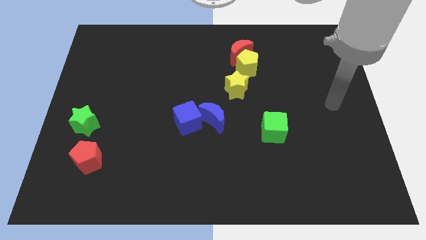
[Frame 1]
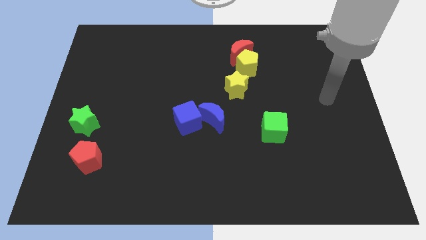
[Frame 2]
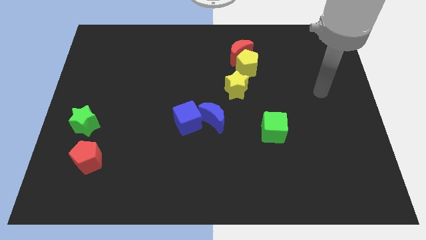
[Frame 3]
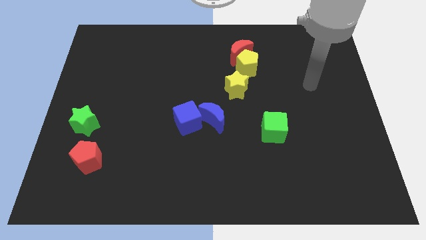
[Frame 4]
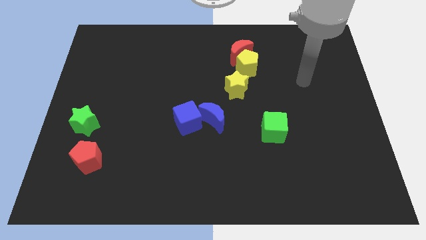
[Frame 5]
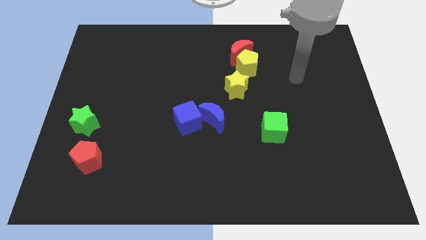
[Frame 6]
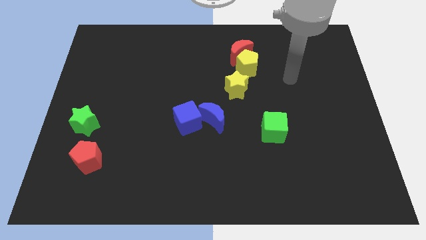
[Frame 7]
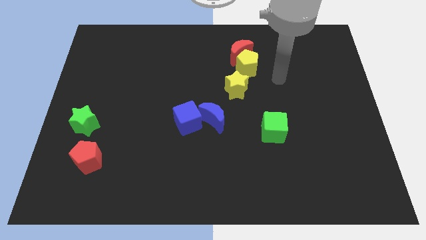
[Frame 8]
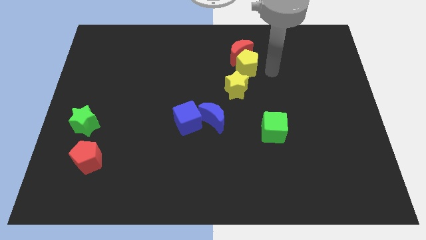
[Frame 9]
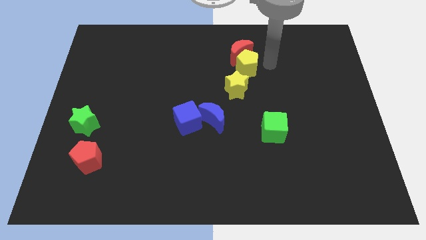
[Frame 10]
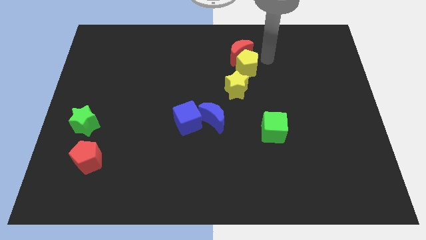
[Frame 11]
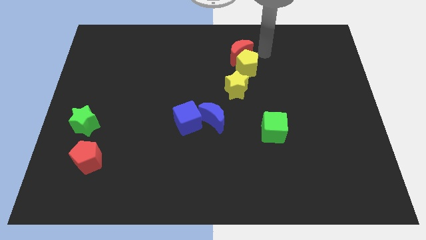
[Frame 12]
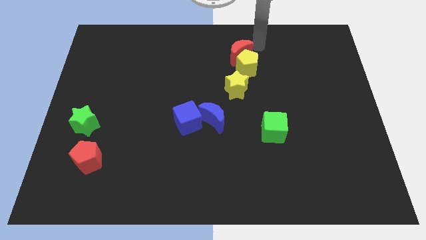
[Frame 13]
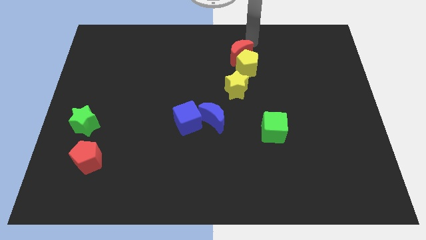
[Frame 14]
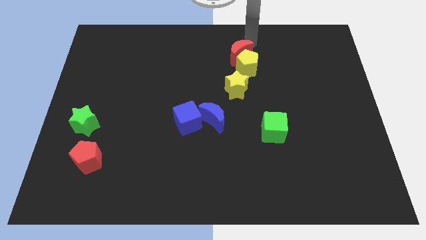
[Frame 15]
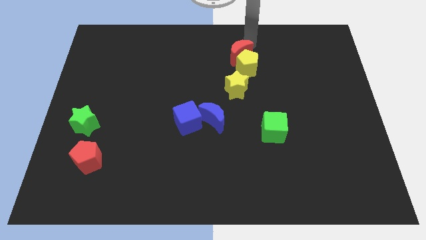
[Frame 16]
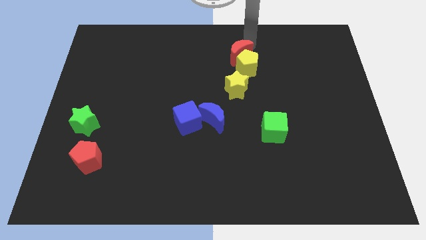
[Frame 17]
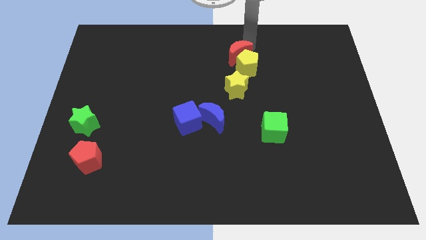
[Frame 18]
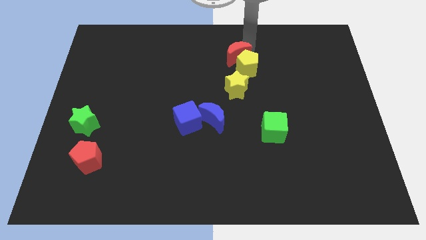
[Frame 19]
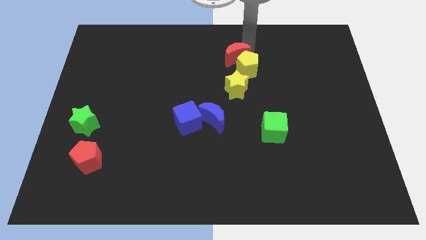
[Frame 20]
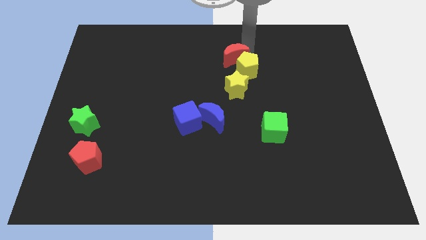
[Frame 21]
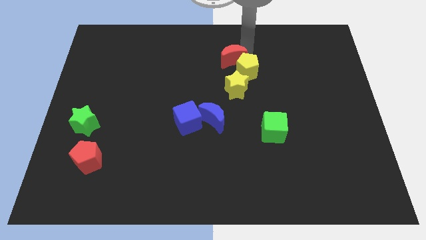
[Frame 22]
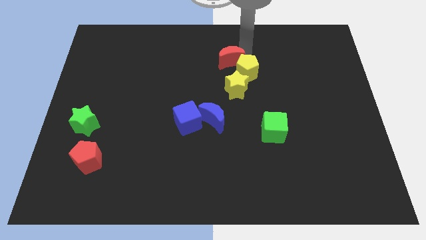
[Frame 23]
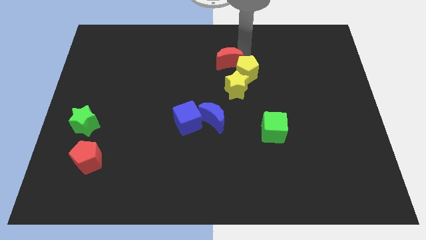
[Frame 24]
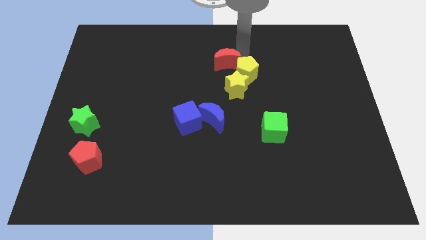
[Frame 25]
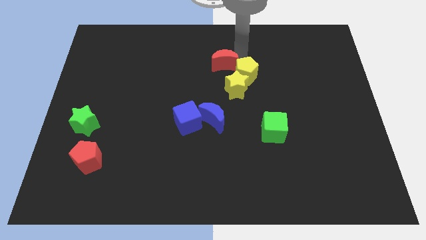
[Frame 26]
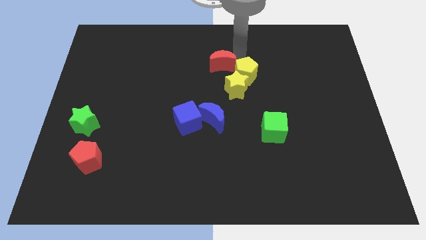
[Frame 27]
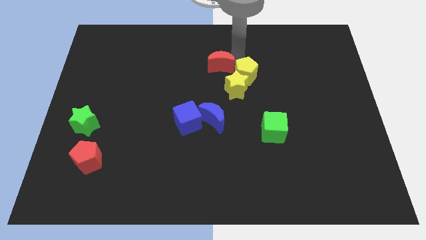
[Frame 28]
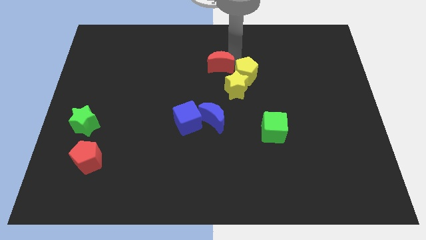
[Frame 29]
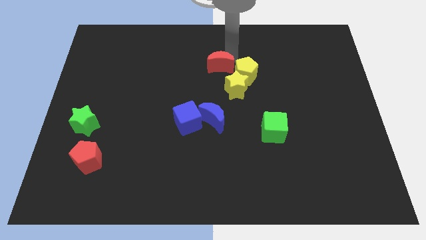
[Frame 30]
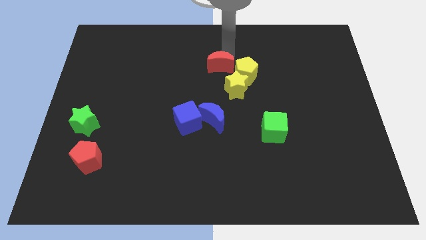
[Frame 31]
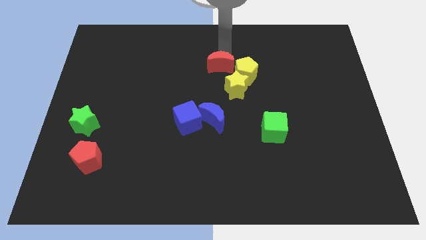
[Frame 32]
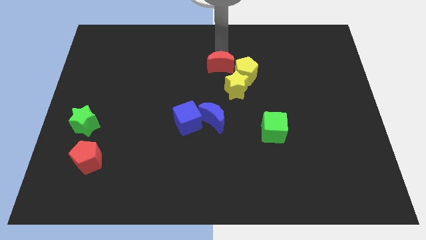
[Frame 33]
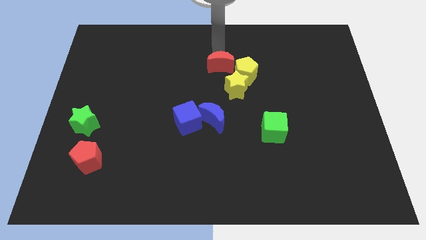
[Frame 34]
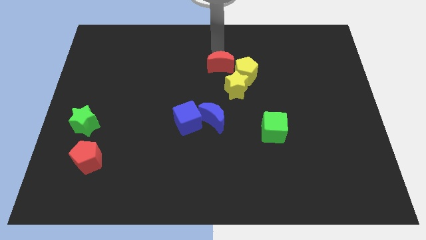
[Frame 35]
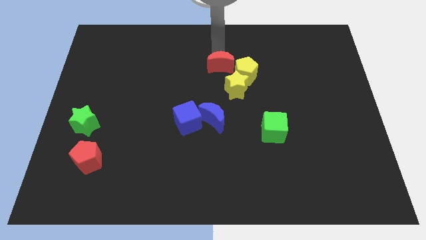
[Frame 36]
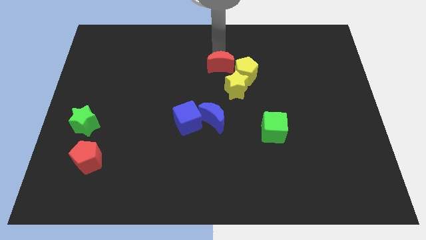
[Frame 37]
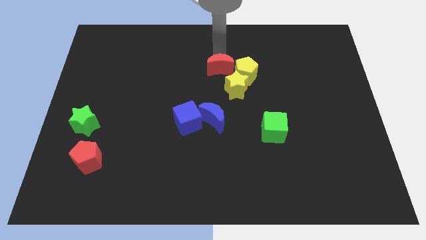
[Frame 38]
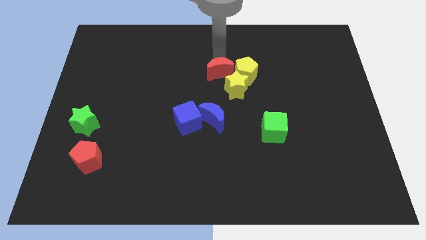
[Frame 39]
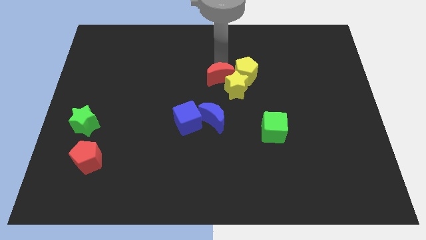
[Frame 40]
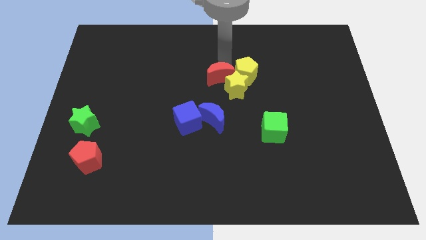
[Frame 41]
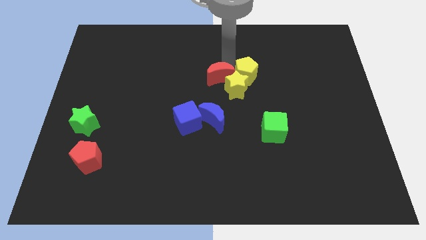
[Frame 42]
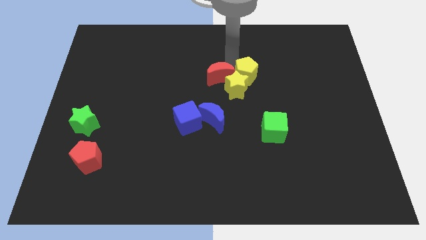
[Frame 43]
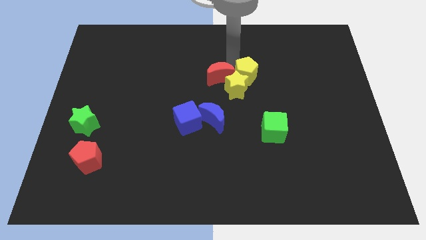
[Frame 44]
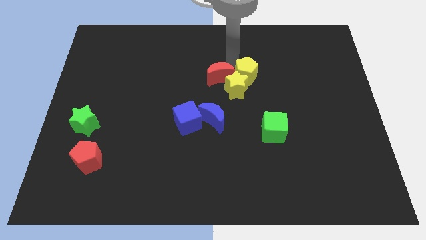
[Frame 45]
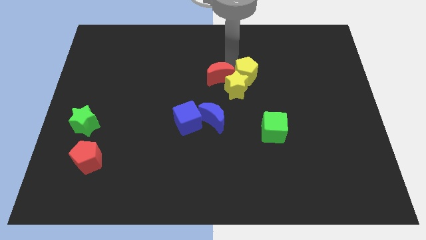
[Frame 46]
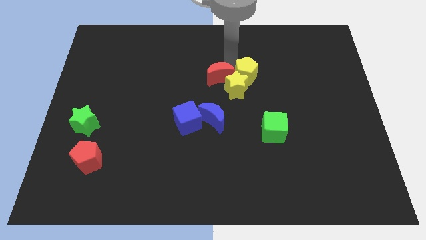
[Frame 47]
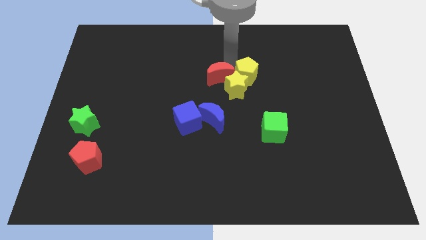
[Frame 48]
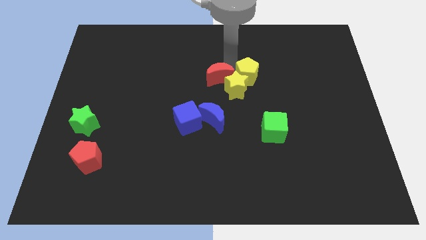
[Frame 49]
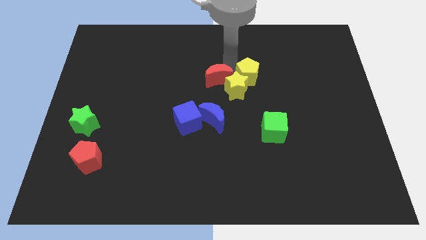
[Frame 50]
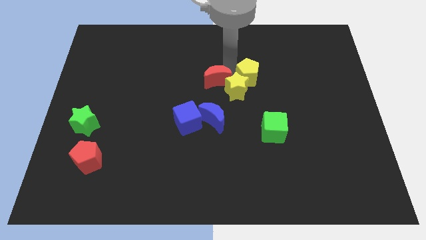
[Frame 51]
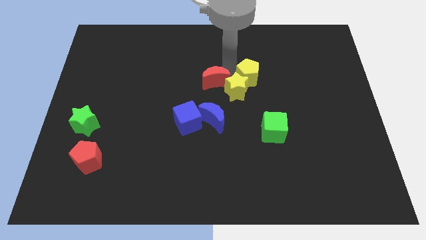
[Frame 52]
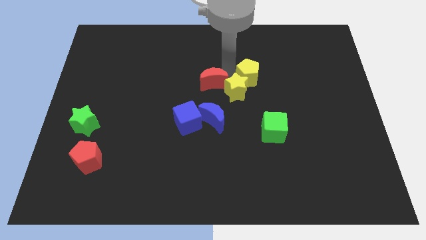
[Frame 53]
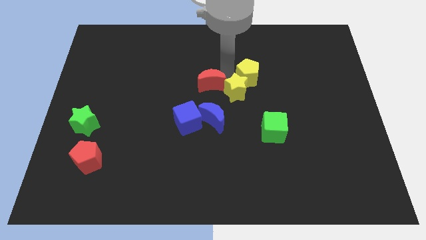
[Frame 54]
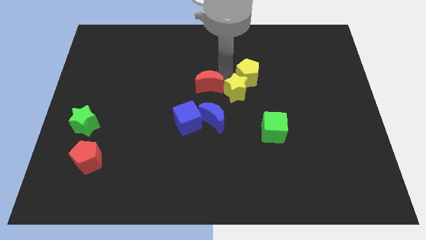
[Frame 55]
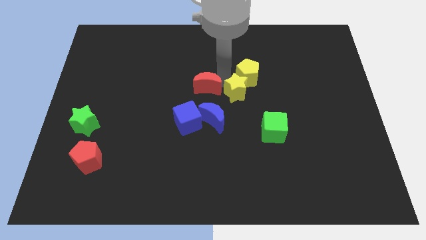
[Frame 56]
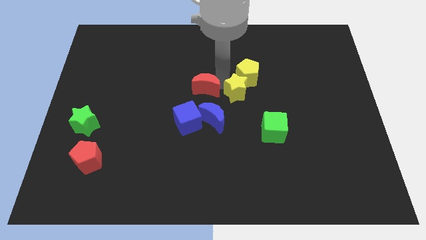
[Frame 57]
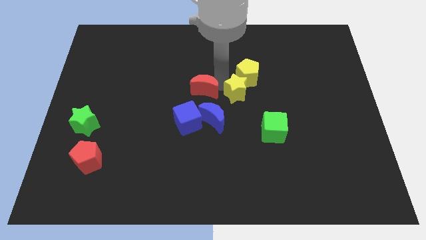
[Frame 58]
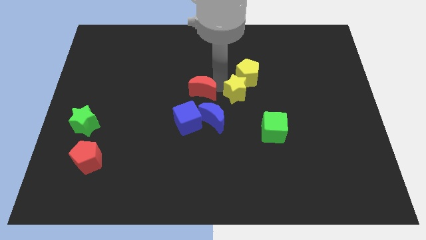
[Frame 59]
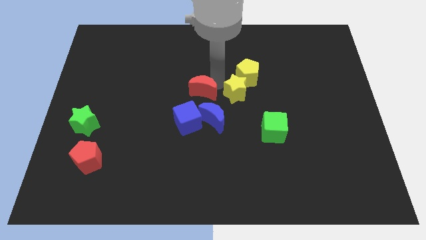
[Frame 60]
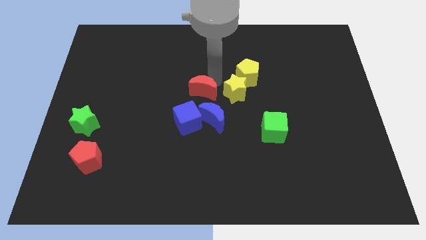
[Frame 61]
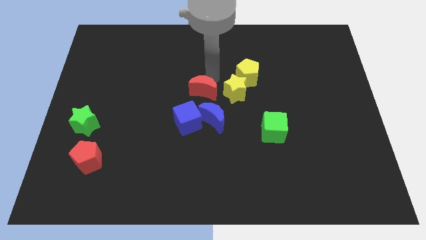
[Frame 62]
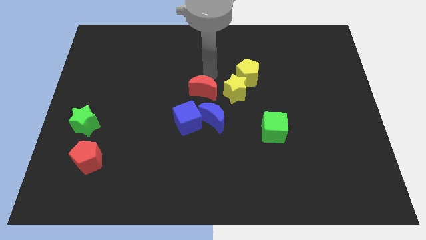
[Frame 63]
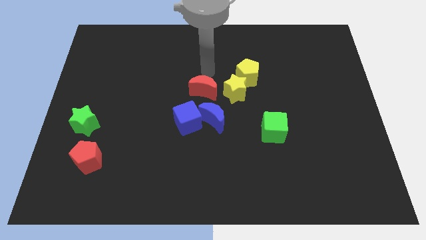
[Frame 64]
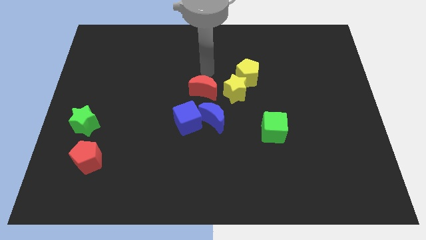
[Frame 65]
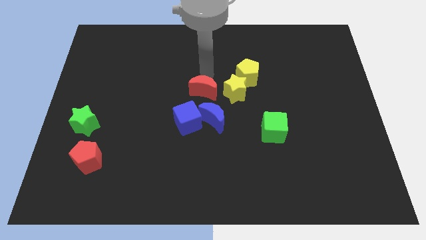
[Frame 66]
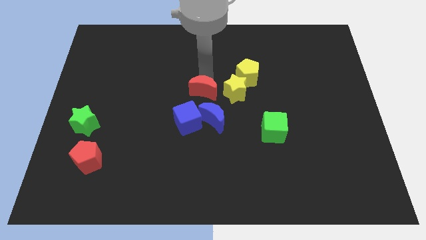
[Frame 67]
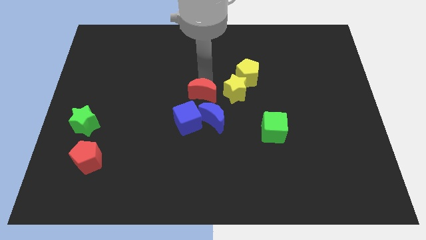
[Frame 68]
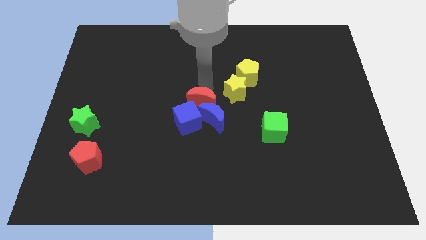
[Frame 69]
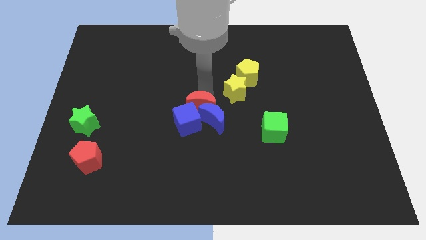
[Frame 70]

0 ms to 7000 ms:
push the red moon next to the blue cube
